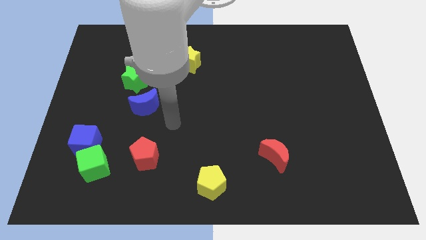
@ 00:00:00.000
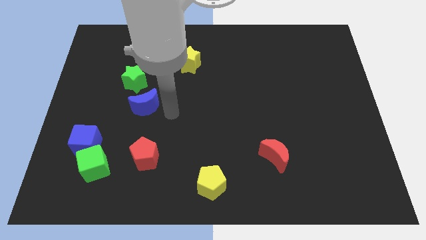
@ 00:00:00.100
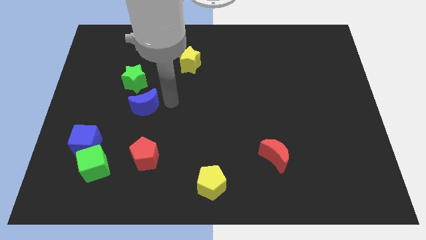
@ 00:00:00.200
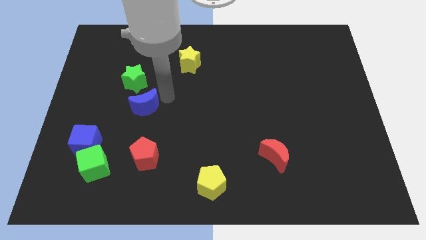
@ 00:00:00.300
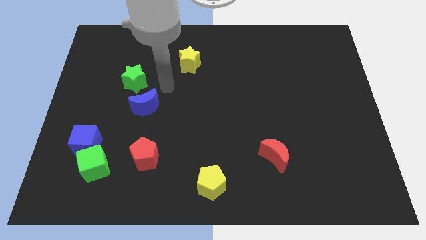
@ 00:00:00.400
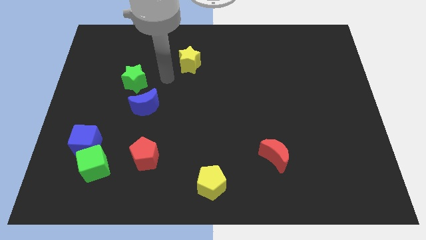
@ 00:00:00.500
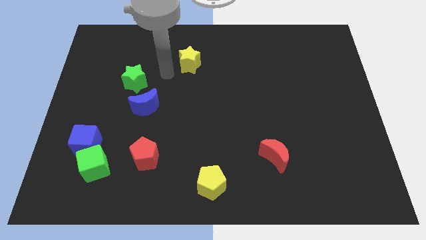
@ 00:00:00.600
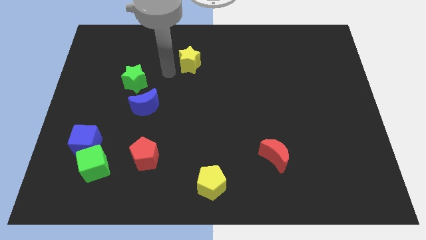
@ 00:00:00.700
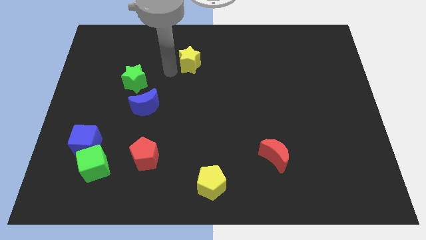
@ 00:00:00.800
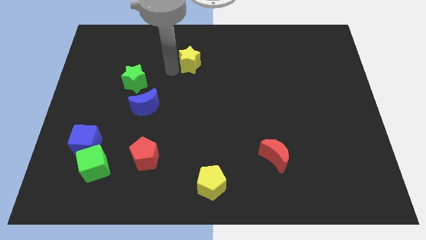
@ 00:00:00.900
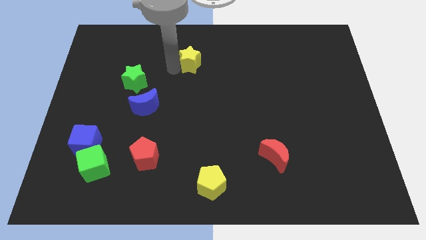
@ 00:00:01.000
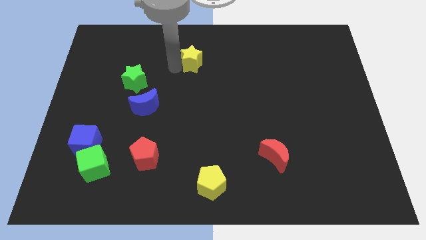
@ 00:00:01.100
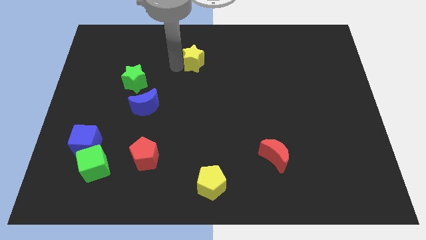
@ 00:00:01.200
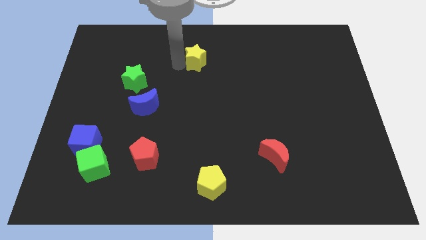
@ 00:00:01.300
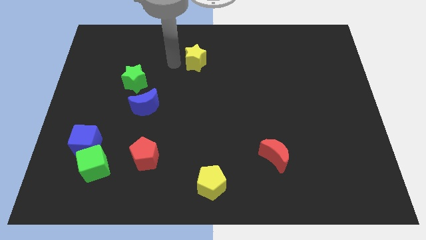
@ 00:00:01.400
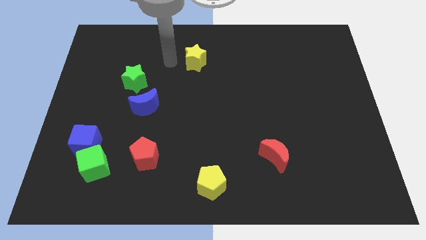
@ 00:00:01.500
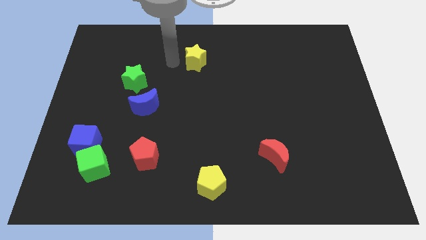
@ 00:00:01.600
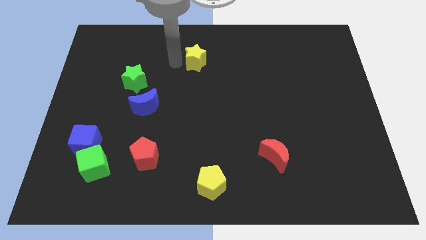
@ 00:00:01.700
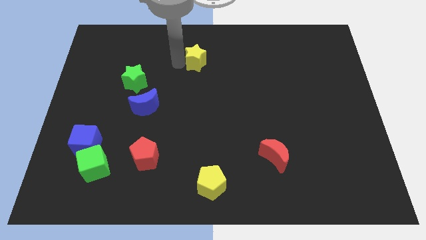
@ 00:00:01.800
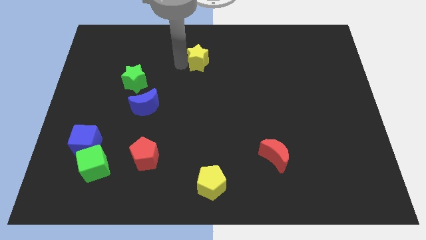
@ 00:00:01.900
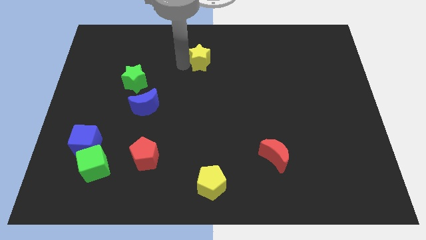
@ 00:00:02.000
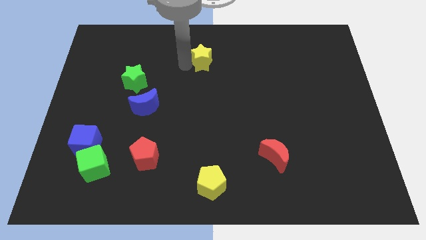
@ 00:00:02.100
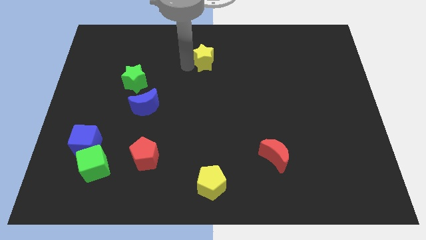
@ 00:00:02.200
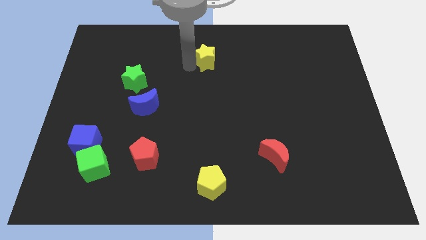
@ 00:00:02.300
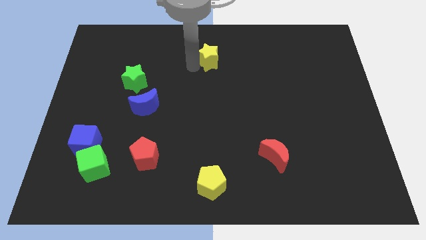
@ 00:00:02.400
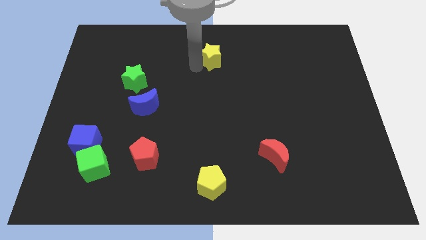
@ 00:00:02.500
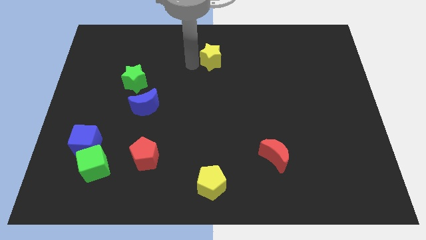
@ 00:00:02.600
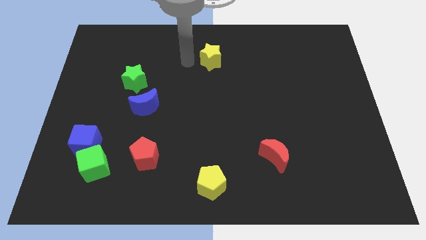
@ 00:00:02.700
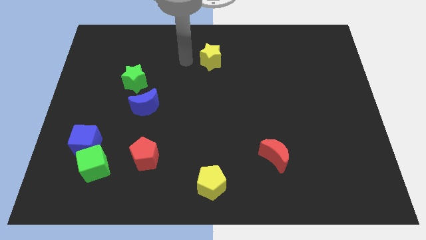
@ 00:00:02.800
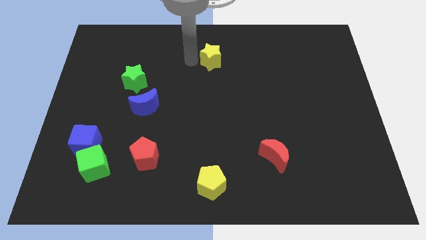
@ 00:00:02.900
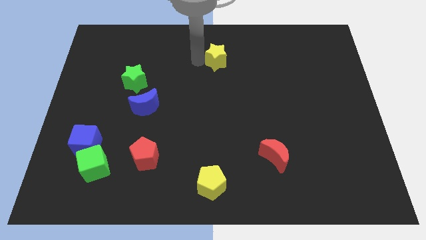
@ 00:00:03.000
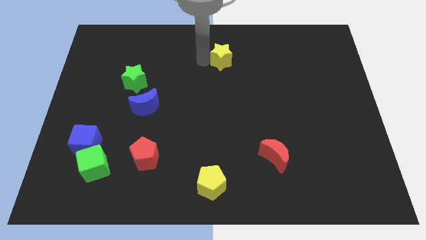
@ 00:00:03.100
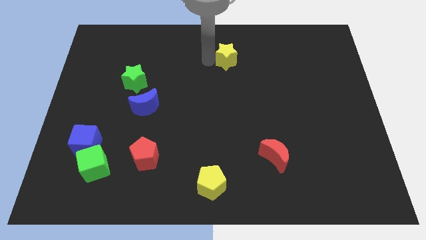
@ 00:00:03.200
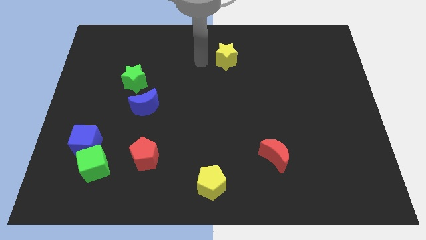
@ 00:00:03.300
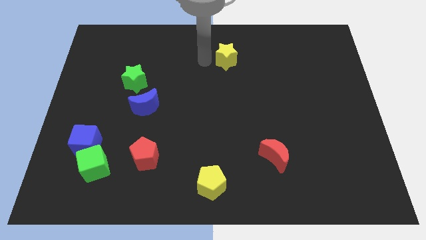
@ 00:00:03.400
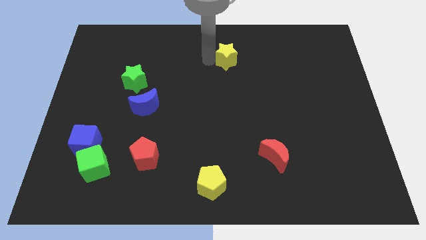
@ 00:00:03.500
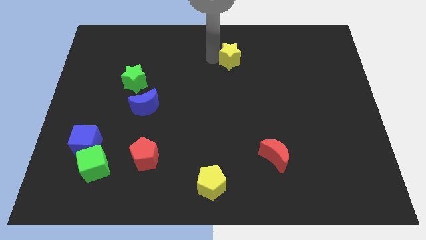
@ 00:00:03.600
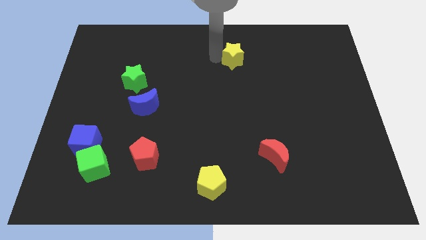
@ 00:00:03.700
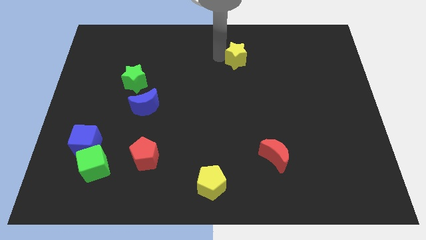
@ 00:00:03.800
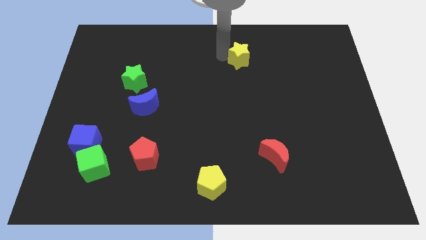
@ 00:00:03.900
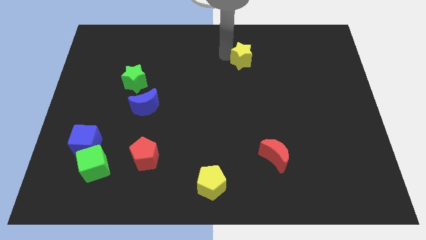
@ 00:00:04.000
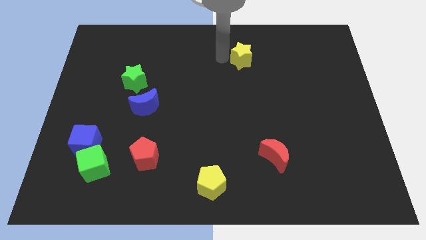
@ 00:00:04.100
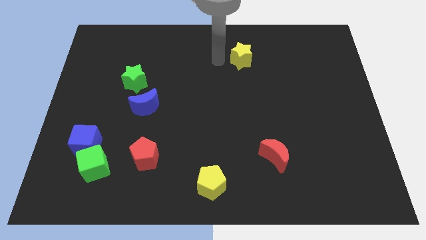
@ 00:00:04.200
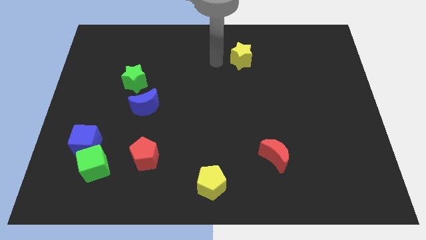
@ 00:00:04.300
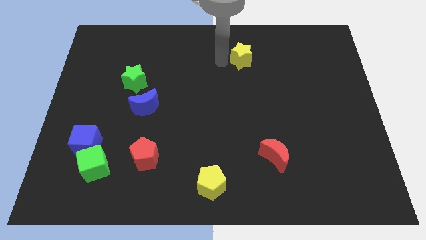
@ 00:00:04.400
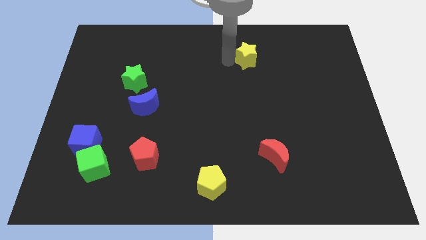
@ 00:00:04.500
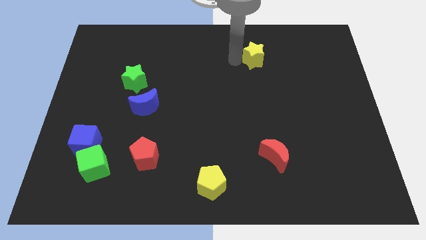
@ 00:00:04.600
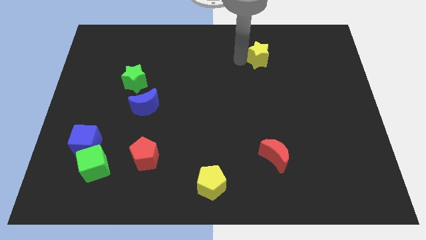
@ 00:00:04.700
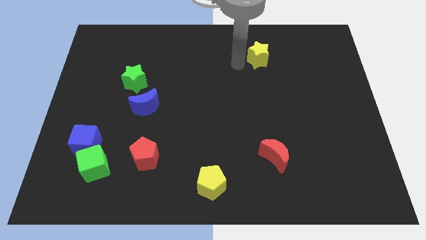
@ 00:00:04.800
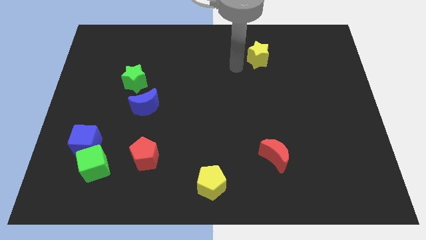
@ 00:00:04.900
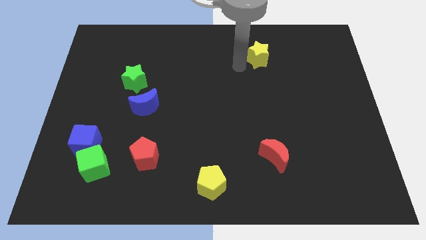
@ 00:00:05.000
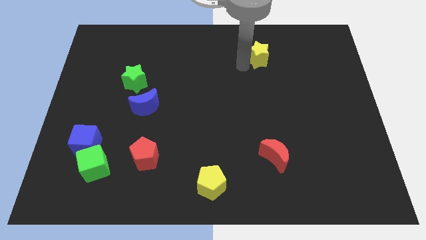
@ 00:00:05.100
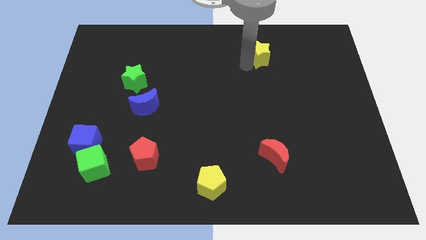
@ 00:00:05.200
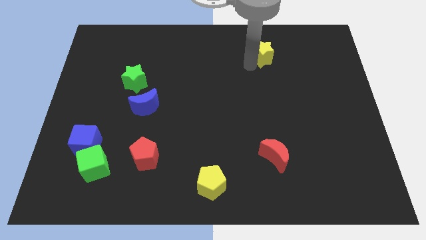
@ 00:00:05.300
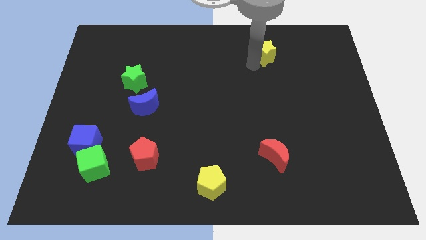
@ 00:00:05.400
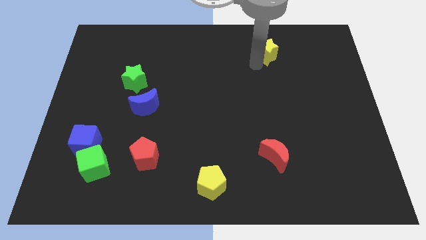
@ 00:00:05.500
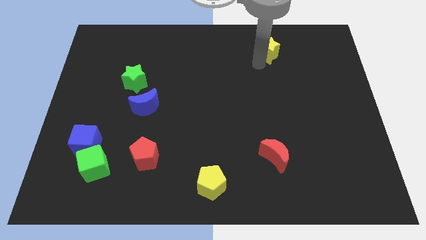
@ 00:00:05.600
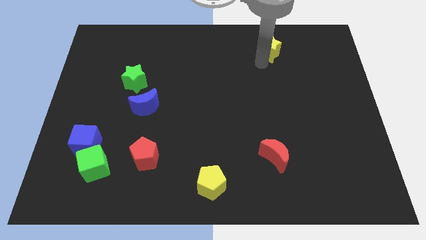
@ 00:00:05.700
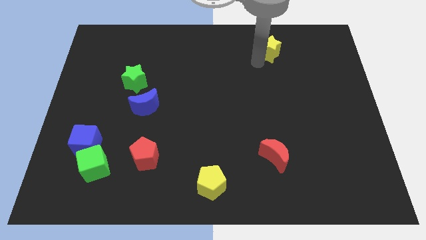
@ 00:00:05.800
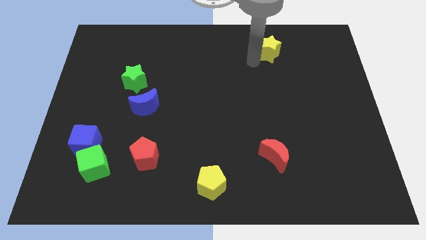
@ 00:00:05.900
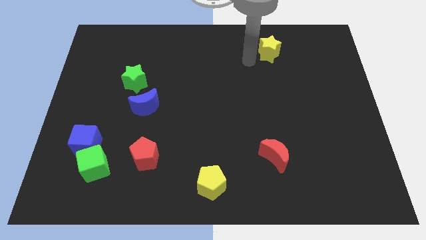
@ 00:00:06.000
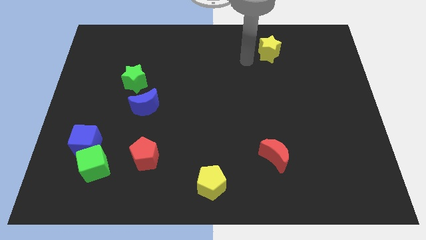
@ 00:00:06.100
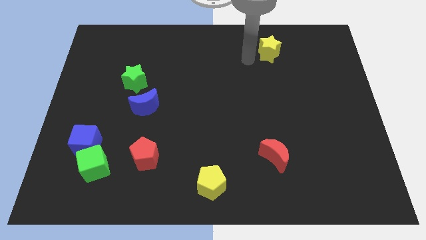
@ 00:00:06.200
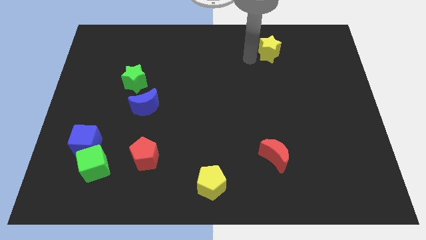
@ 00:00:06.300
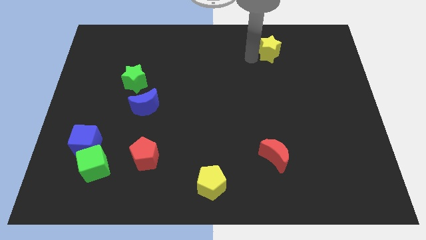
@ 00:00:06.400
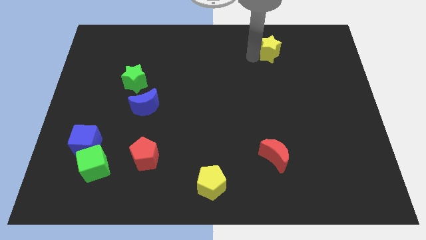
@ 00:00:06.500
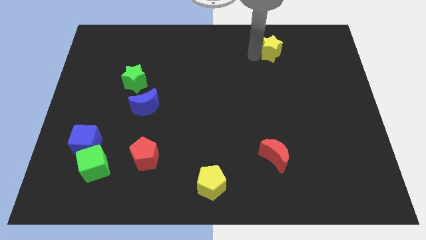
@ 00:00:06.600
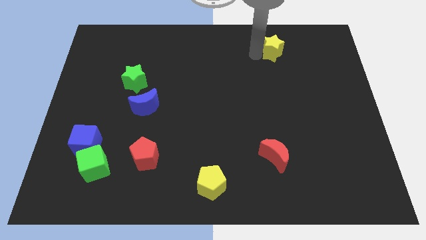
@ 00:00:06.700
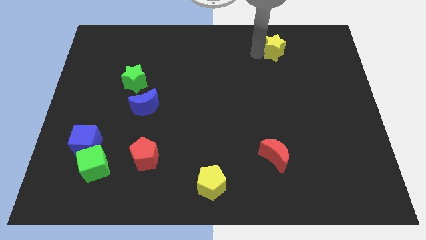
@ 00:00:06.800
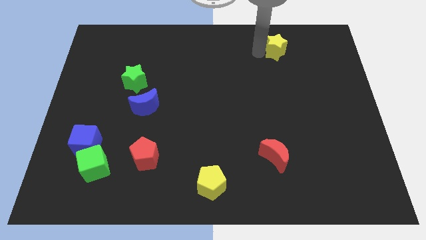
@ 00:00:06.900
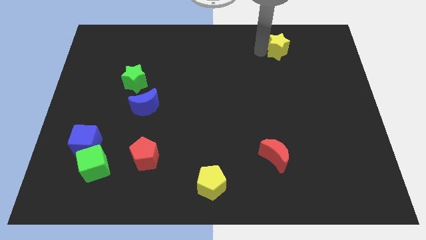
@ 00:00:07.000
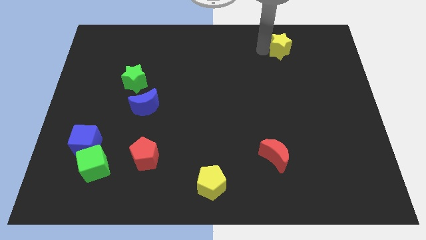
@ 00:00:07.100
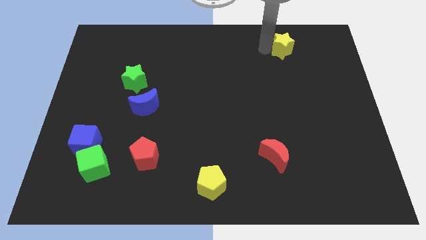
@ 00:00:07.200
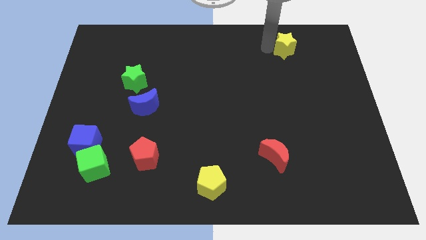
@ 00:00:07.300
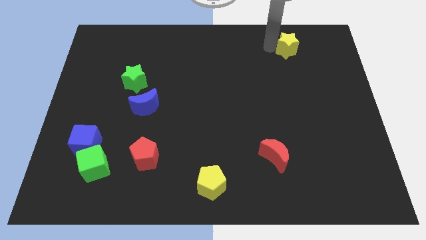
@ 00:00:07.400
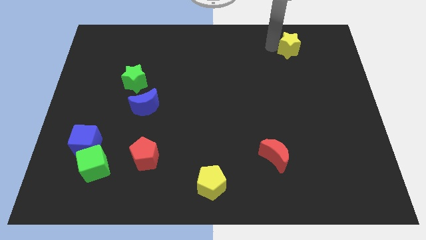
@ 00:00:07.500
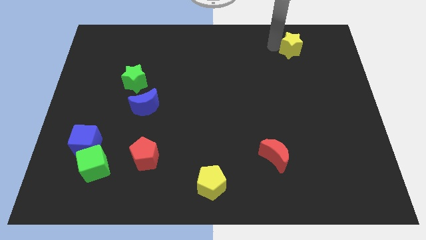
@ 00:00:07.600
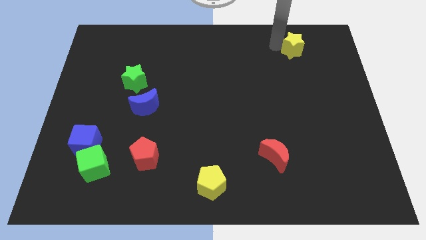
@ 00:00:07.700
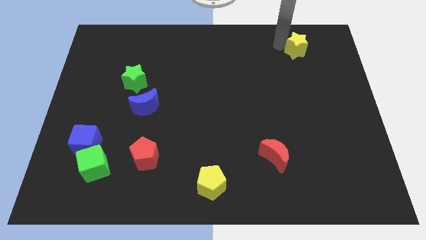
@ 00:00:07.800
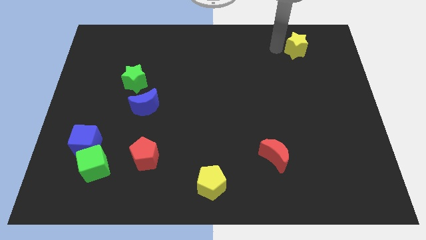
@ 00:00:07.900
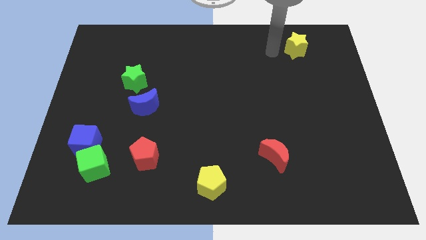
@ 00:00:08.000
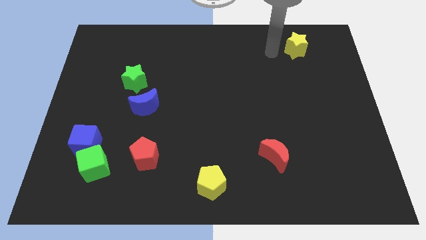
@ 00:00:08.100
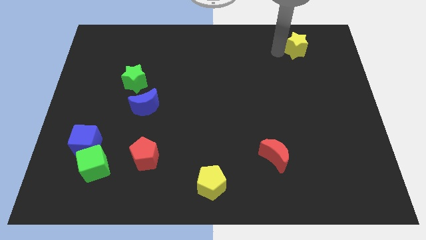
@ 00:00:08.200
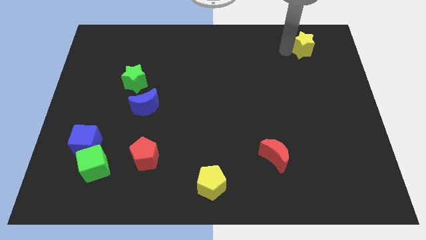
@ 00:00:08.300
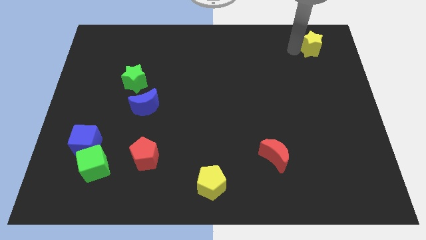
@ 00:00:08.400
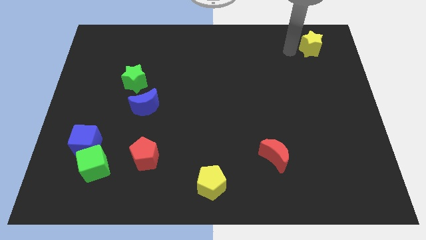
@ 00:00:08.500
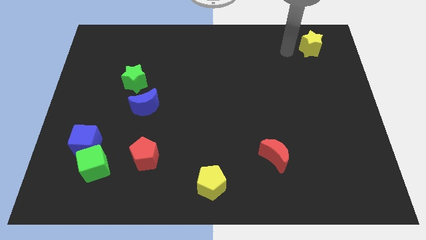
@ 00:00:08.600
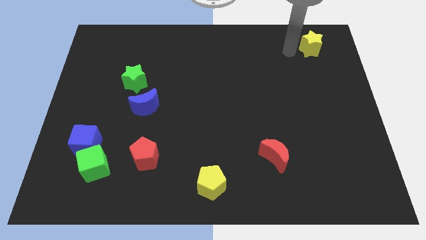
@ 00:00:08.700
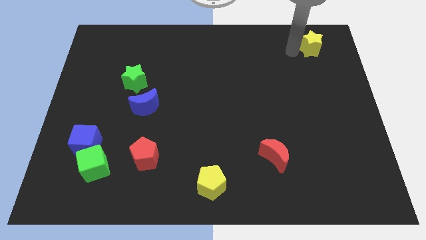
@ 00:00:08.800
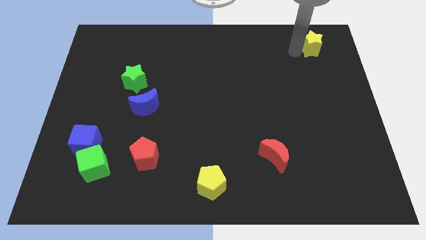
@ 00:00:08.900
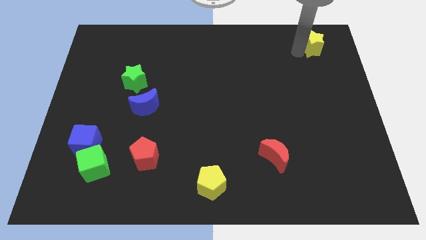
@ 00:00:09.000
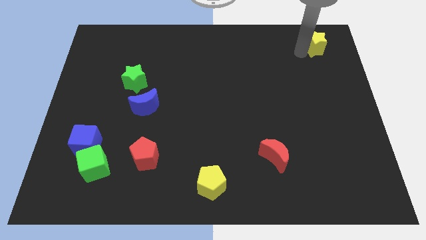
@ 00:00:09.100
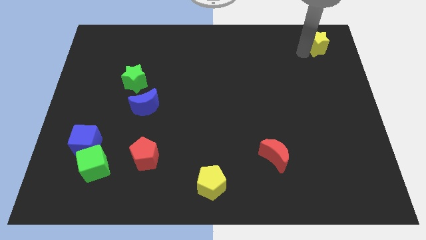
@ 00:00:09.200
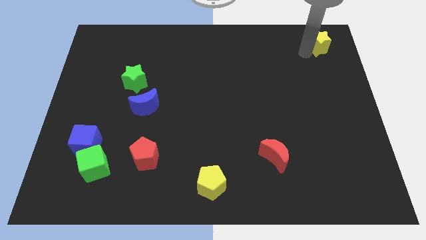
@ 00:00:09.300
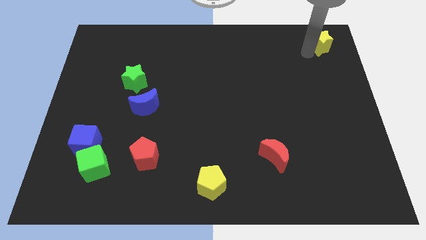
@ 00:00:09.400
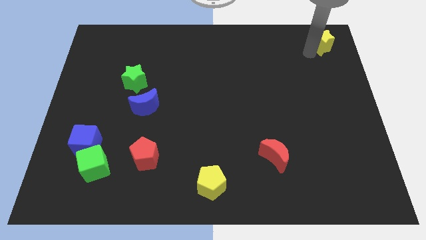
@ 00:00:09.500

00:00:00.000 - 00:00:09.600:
slide the yellow star to the upper right corner
